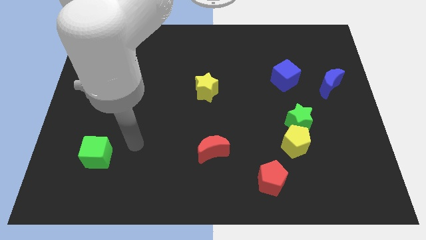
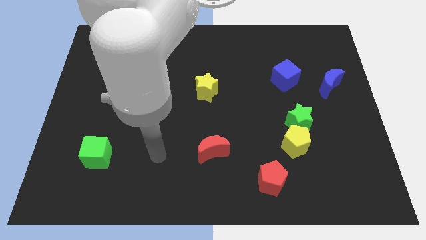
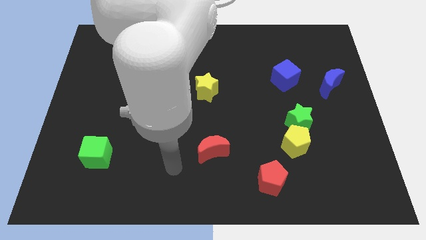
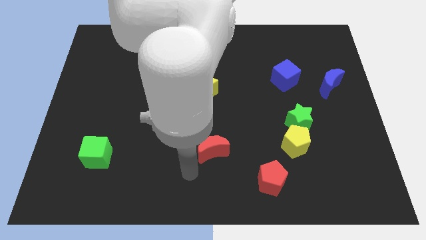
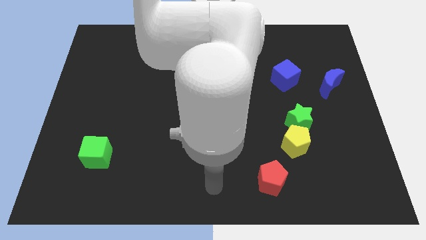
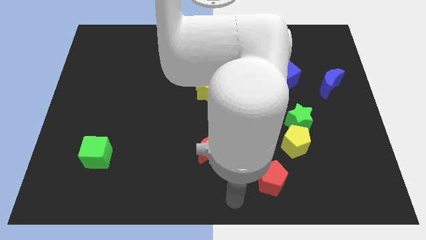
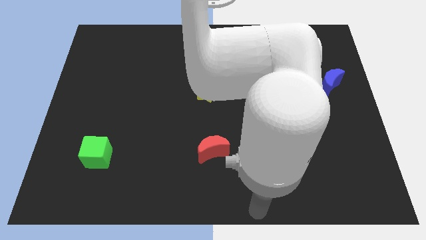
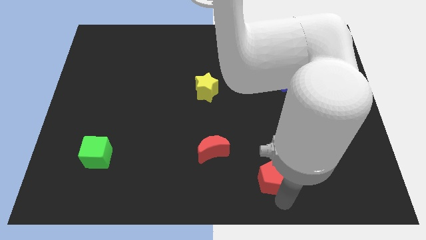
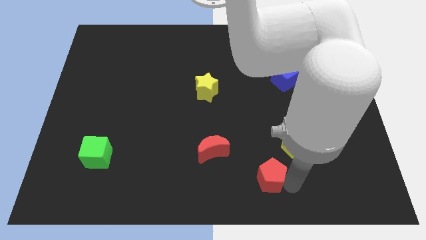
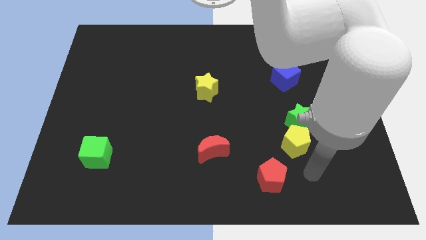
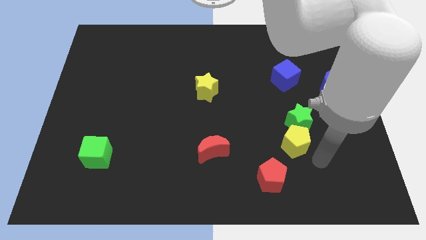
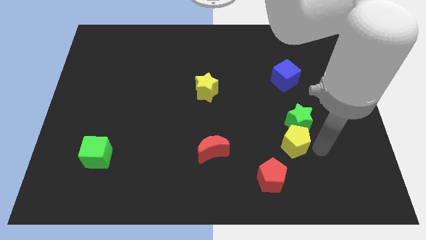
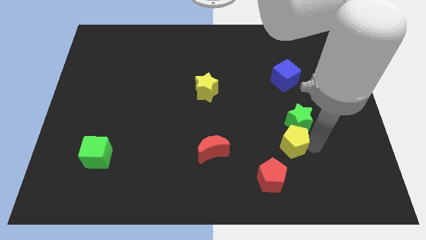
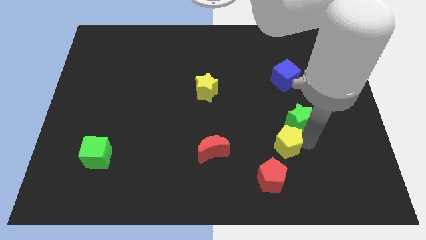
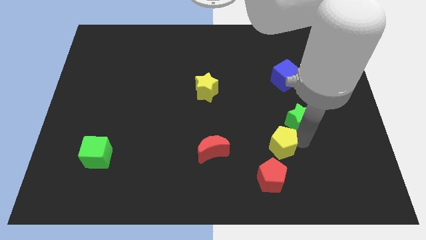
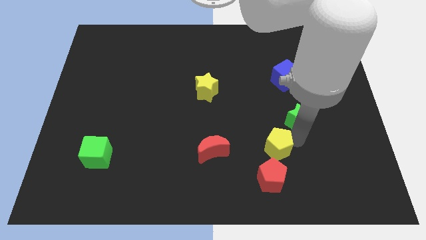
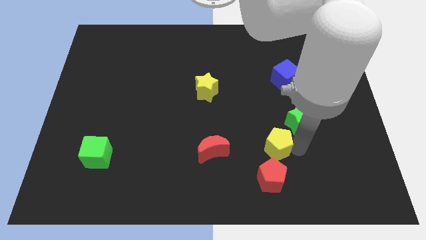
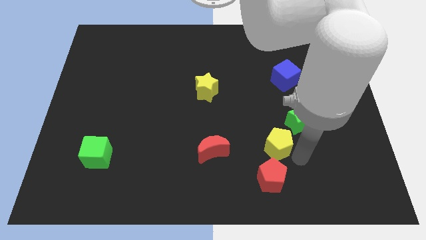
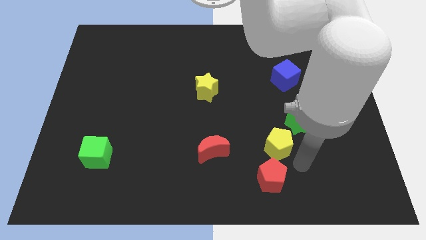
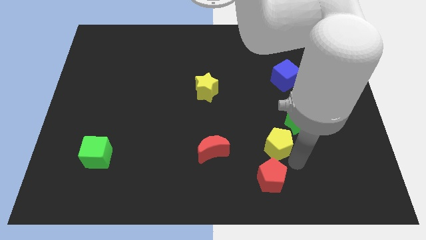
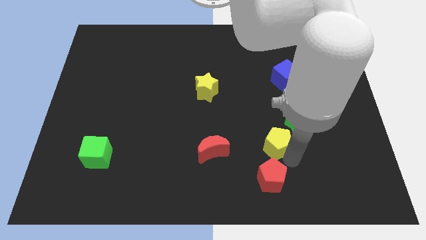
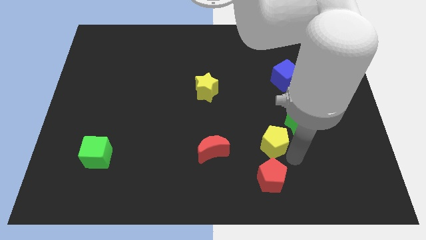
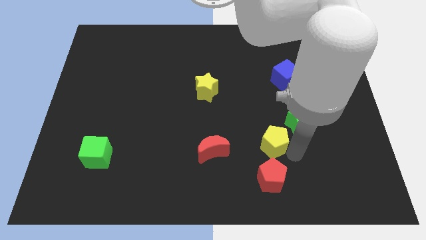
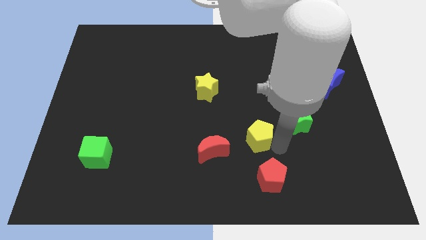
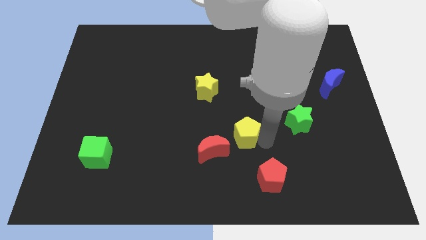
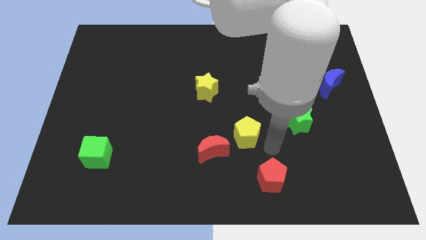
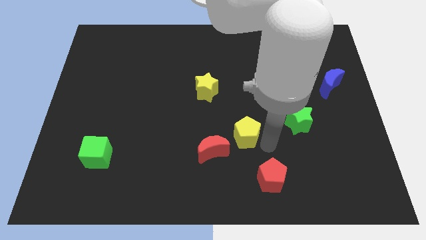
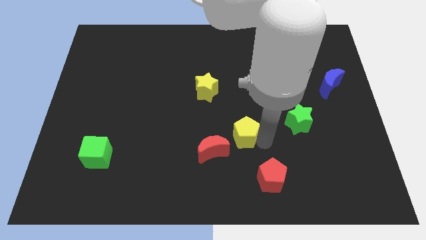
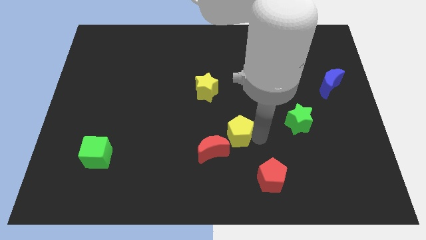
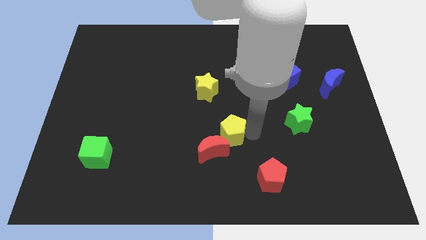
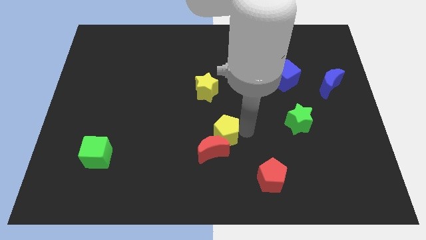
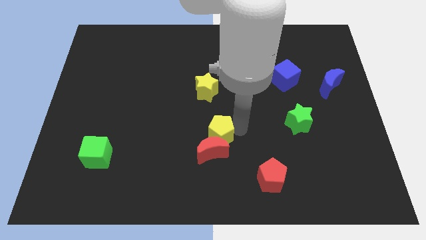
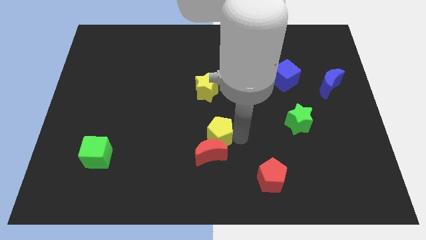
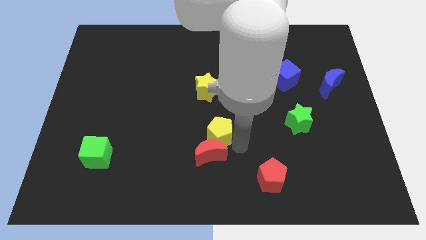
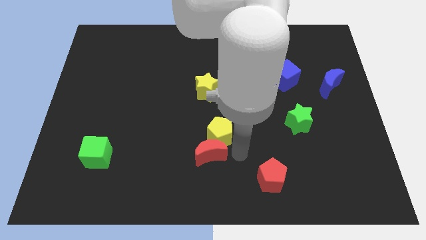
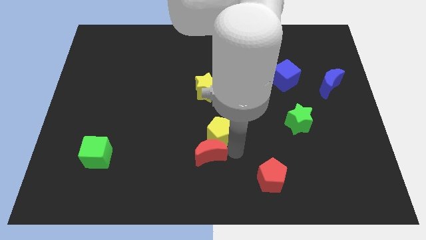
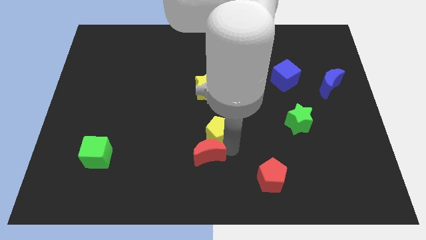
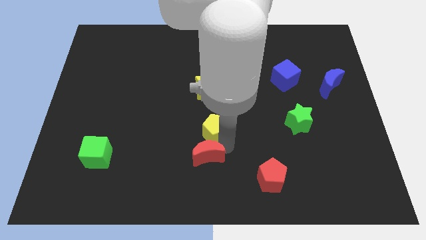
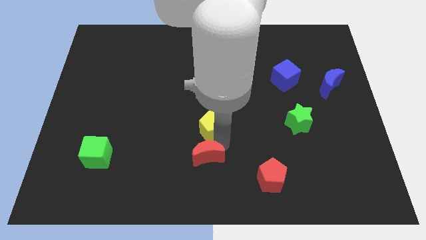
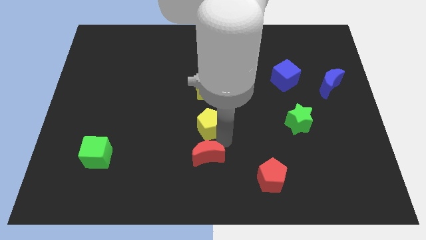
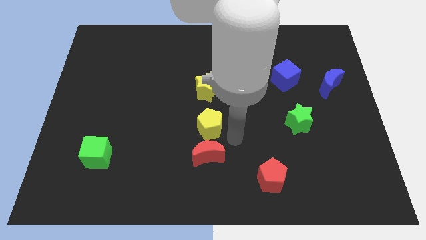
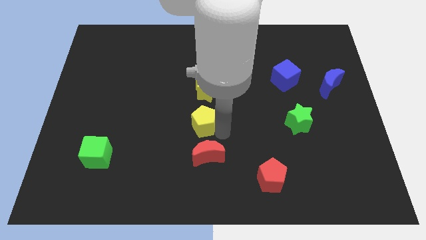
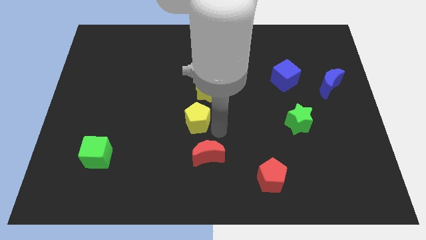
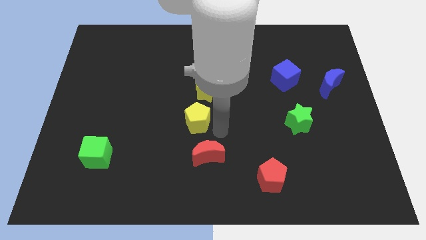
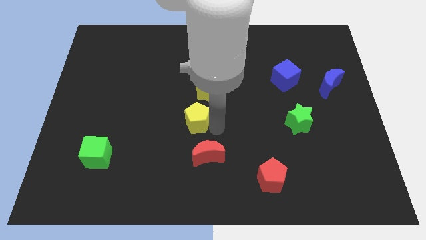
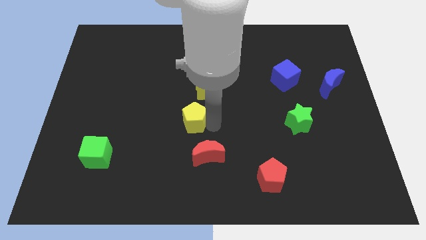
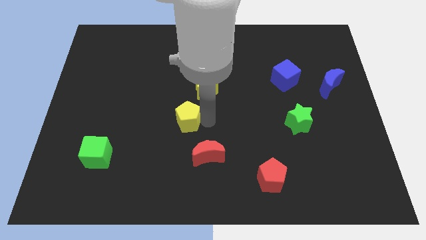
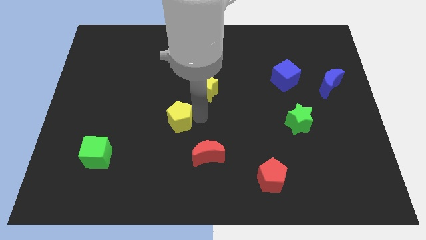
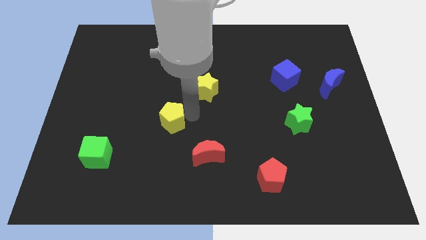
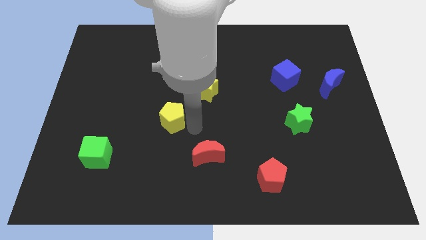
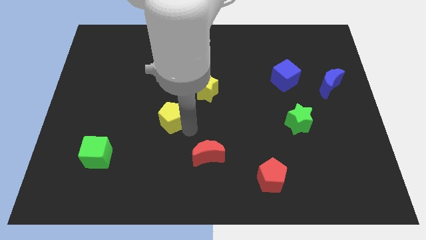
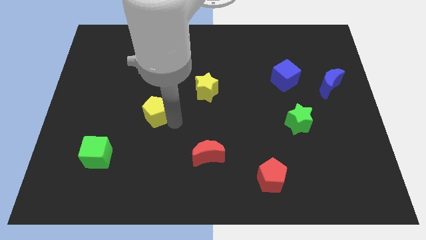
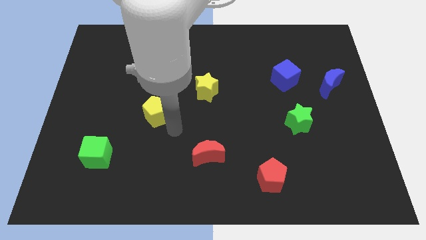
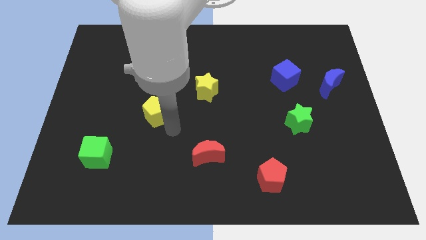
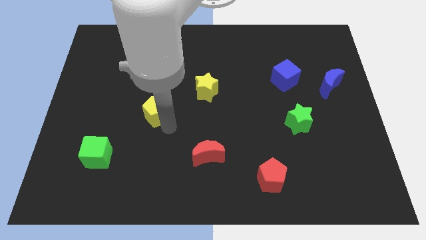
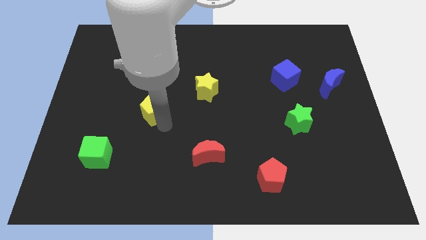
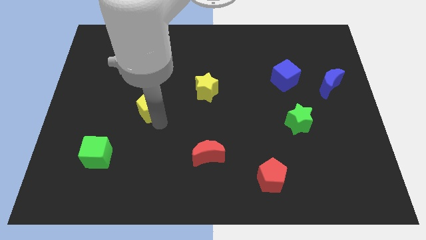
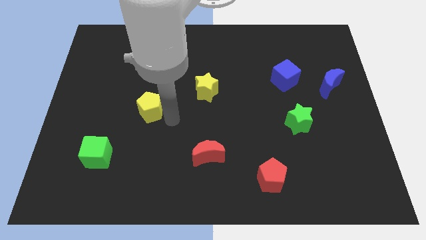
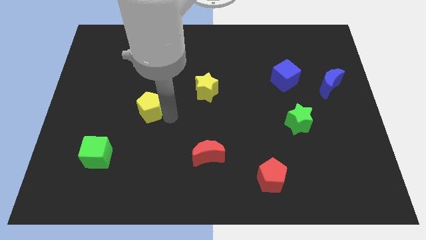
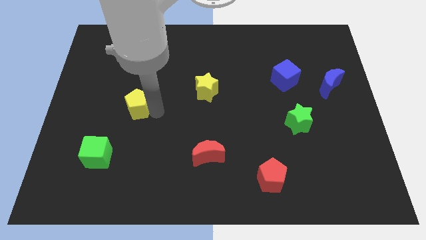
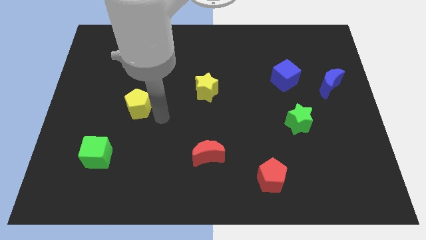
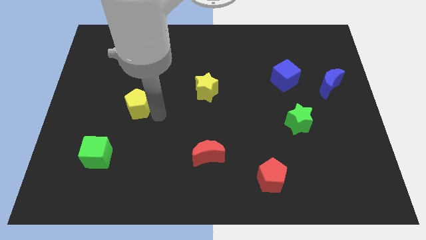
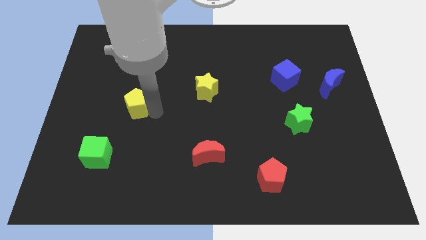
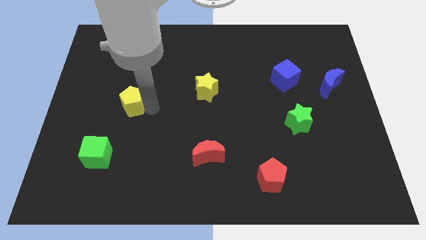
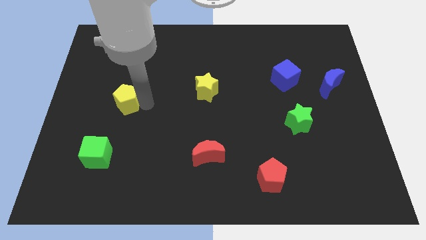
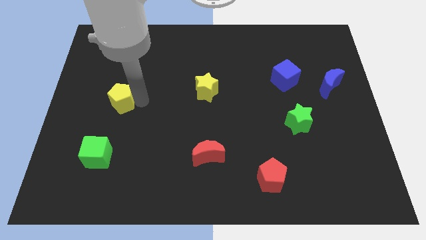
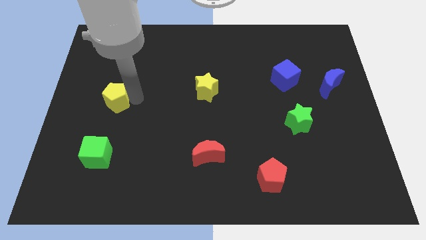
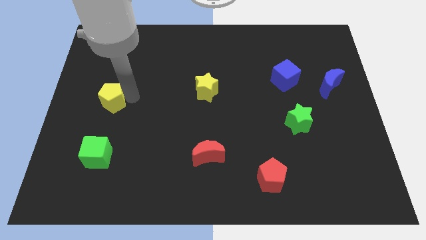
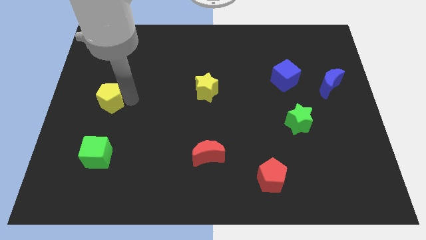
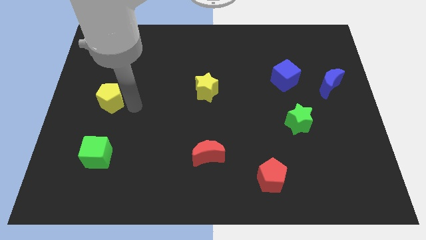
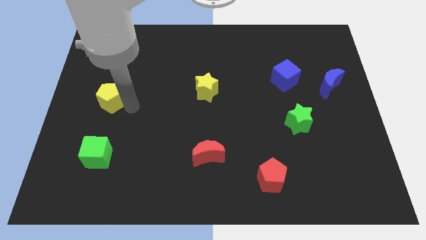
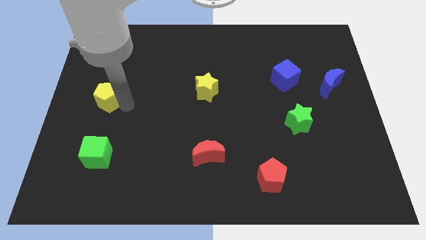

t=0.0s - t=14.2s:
move the yellow pentagon to the left side of the board
